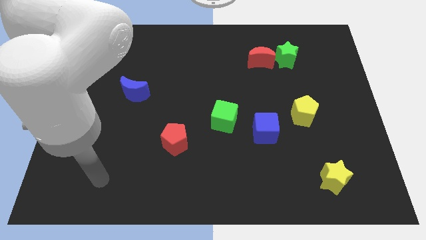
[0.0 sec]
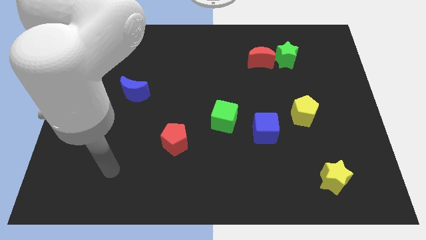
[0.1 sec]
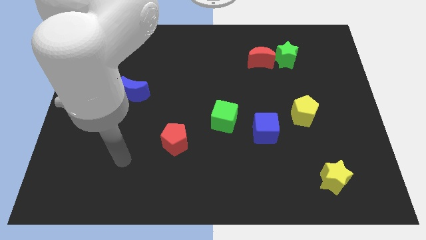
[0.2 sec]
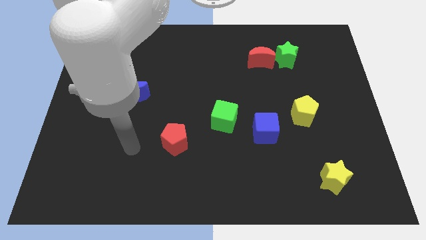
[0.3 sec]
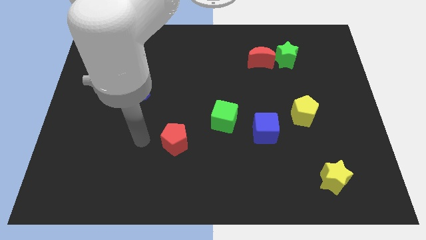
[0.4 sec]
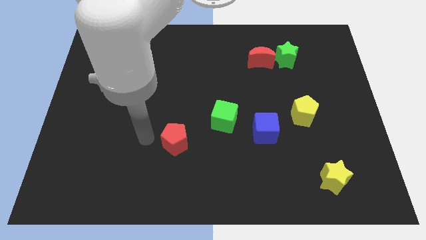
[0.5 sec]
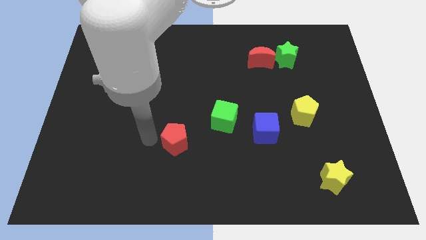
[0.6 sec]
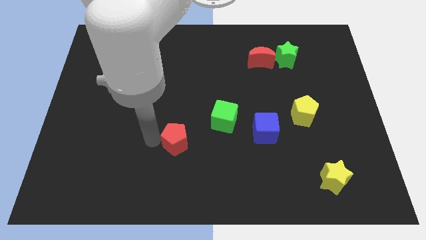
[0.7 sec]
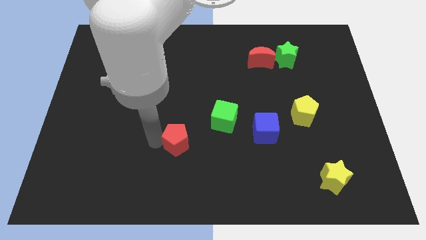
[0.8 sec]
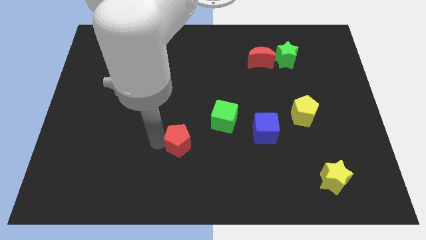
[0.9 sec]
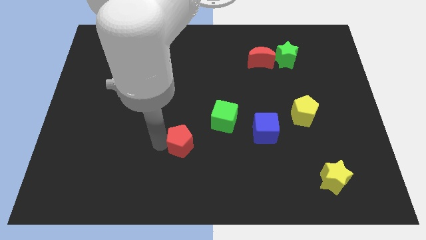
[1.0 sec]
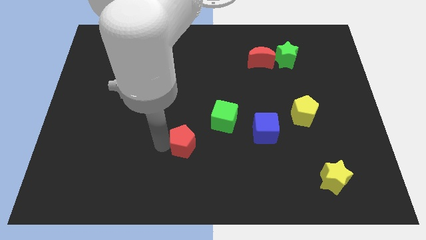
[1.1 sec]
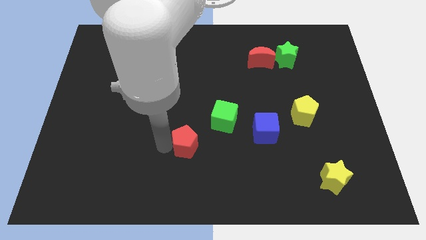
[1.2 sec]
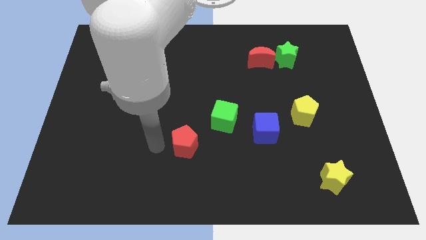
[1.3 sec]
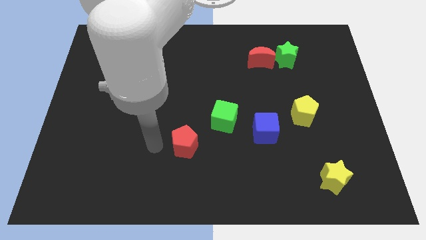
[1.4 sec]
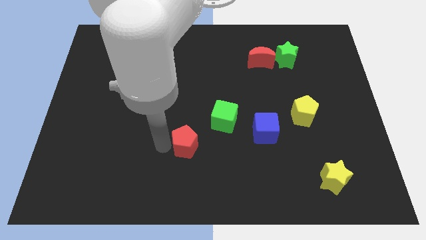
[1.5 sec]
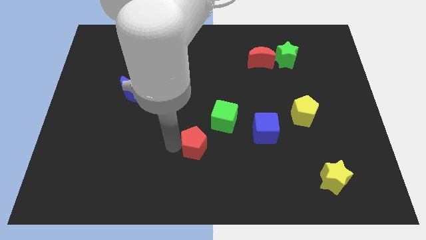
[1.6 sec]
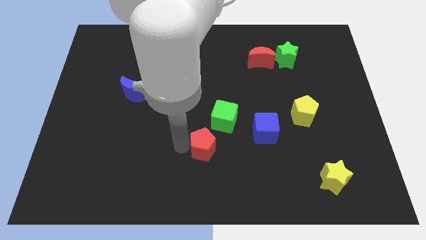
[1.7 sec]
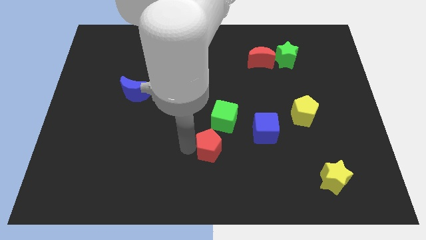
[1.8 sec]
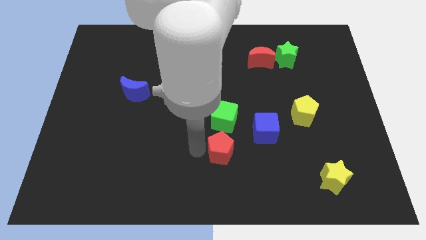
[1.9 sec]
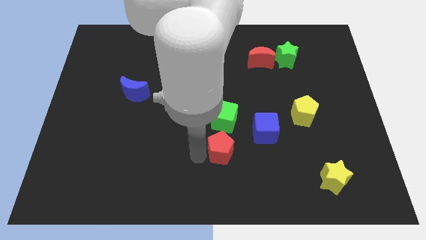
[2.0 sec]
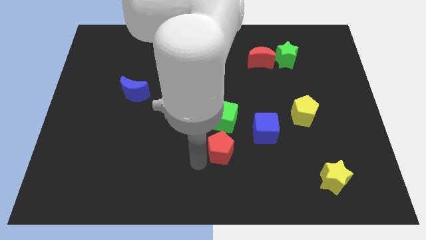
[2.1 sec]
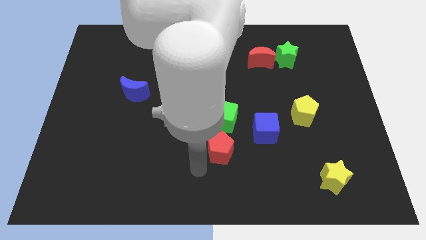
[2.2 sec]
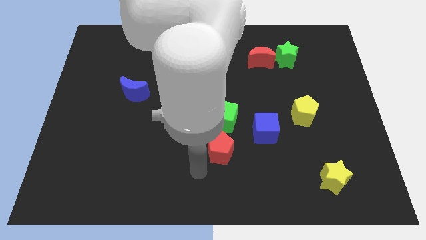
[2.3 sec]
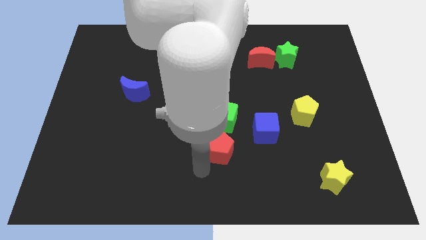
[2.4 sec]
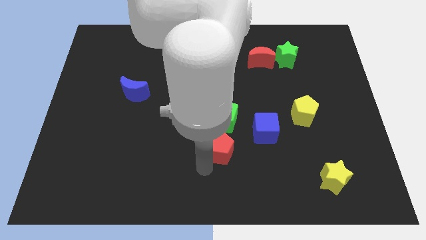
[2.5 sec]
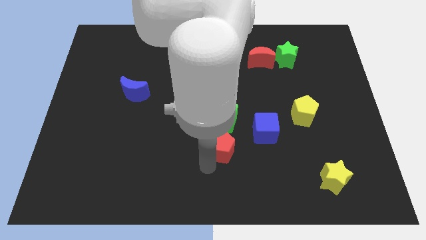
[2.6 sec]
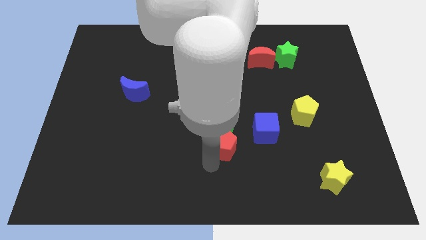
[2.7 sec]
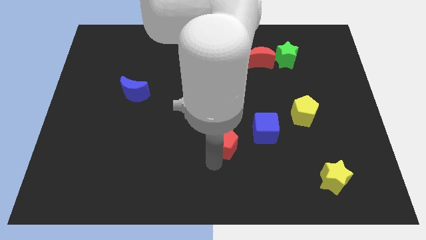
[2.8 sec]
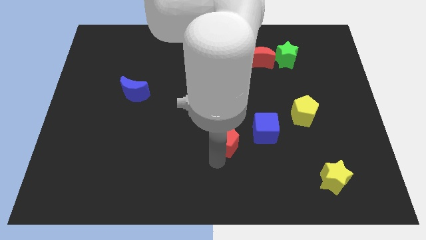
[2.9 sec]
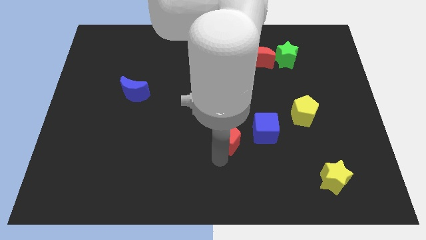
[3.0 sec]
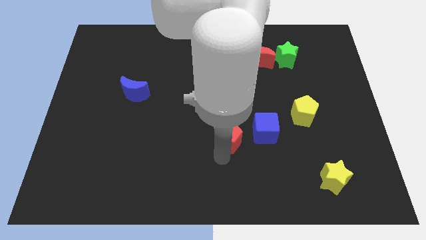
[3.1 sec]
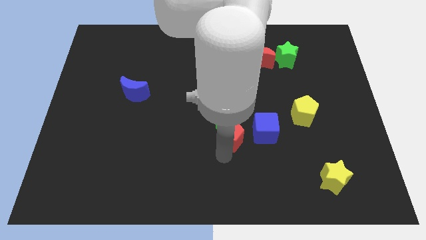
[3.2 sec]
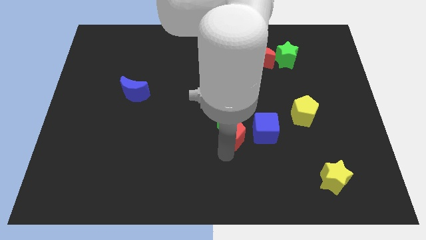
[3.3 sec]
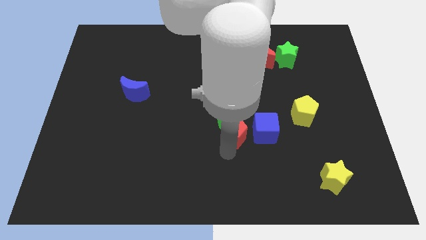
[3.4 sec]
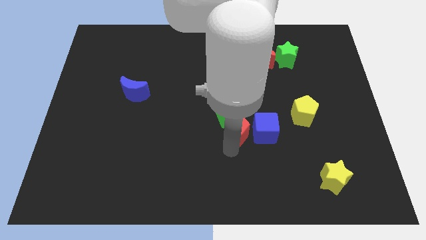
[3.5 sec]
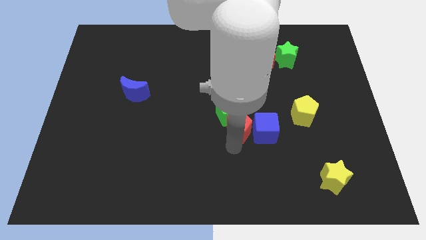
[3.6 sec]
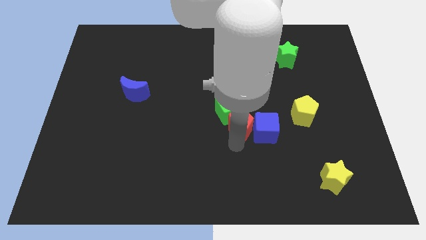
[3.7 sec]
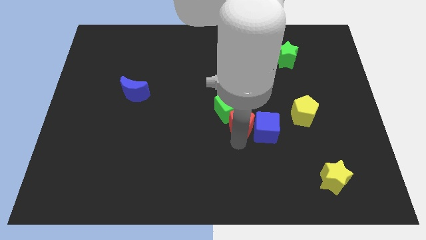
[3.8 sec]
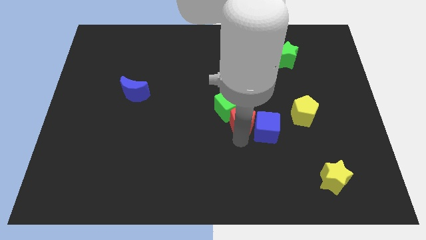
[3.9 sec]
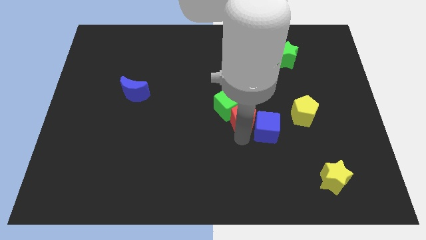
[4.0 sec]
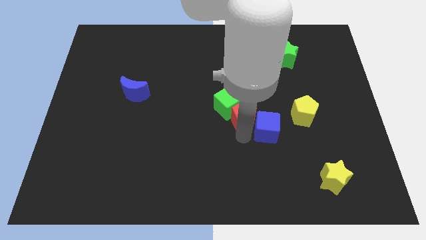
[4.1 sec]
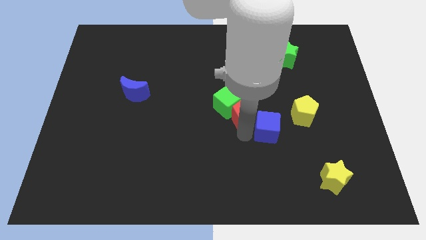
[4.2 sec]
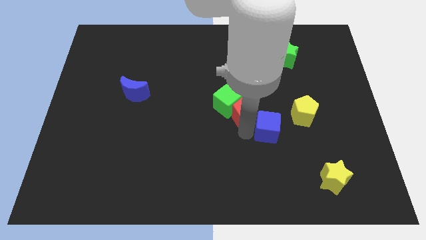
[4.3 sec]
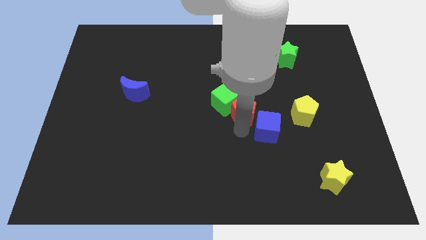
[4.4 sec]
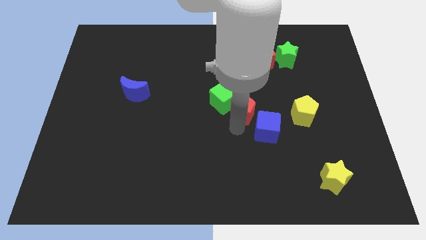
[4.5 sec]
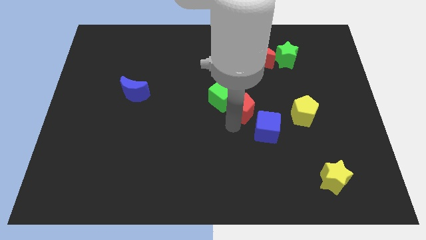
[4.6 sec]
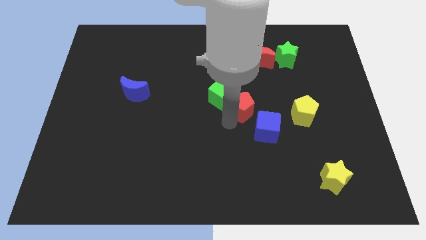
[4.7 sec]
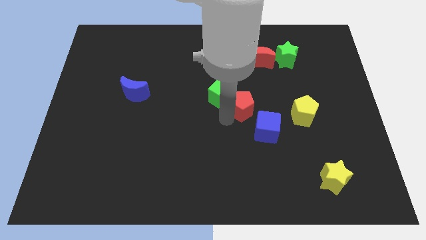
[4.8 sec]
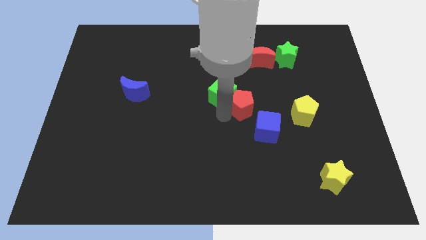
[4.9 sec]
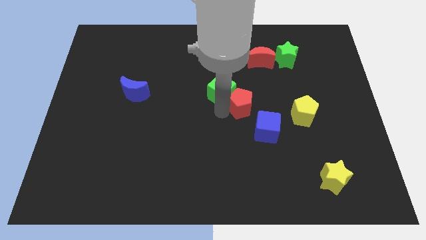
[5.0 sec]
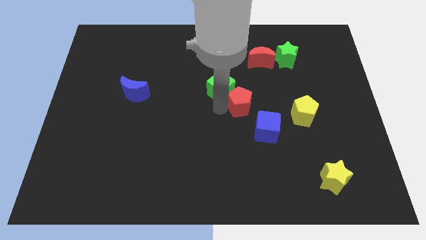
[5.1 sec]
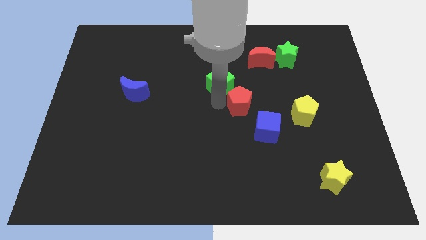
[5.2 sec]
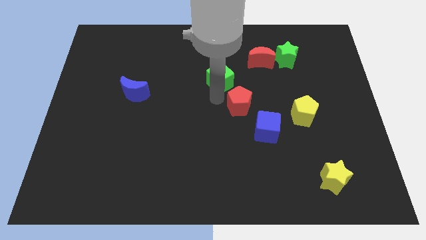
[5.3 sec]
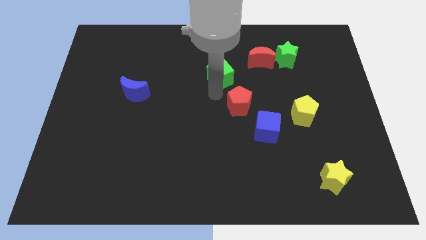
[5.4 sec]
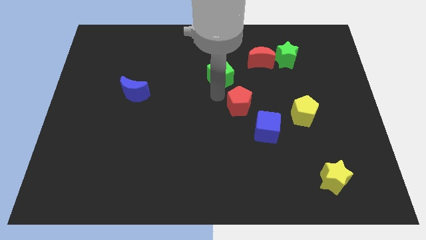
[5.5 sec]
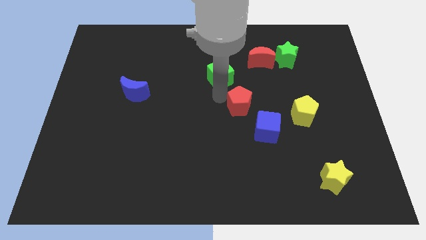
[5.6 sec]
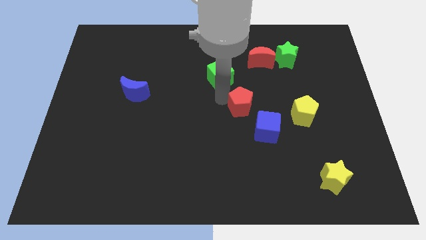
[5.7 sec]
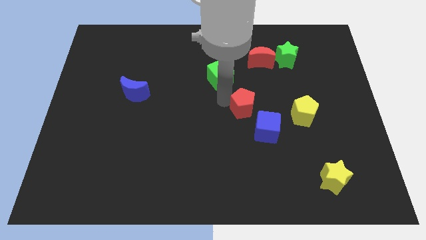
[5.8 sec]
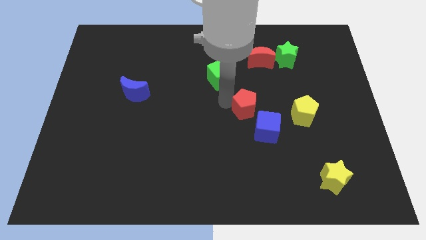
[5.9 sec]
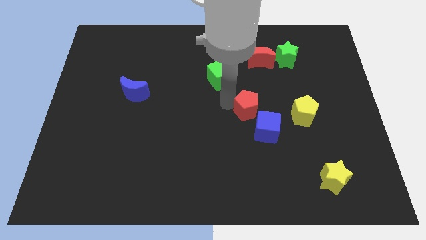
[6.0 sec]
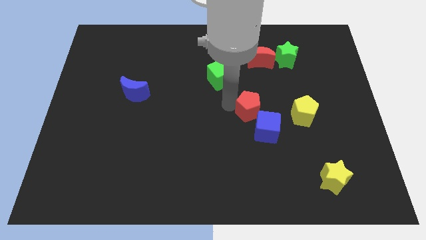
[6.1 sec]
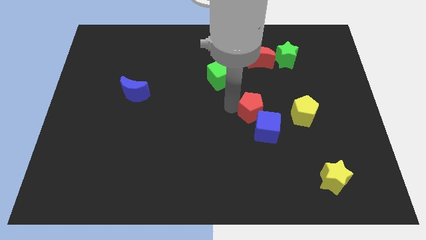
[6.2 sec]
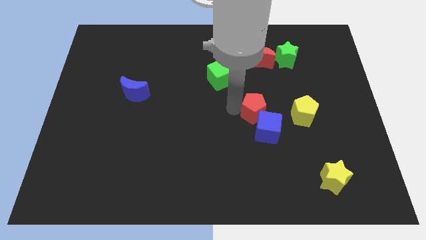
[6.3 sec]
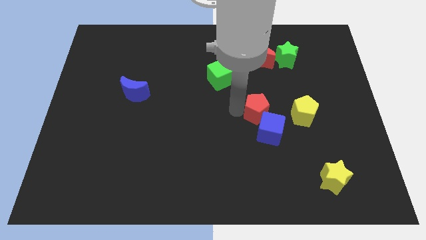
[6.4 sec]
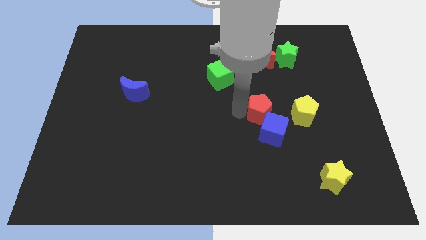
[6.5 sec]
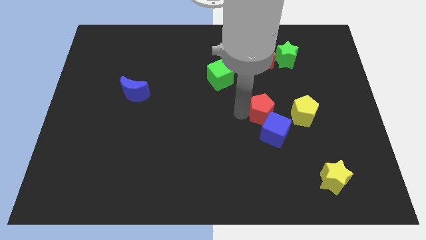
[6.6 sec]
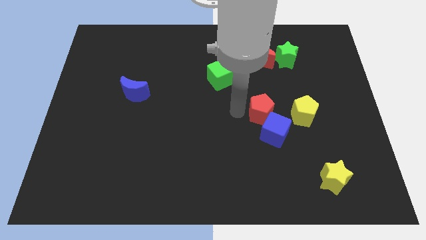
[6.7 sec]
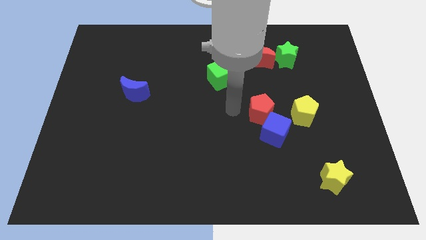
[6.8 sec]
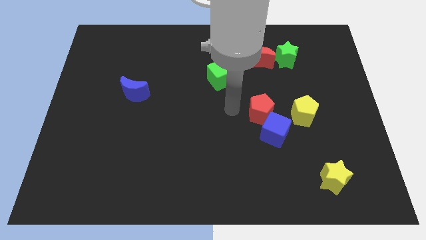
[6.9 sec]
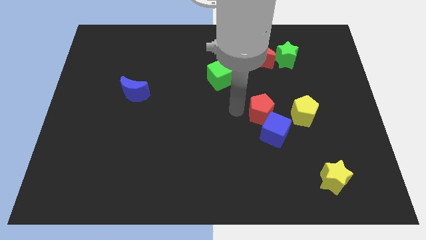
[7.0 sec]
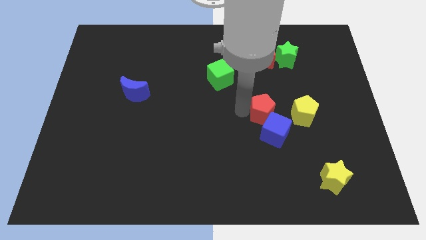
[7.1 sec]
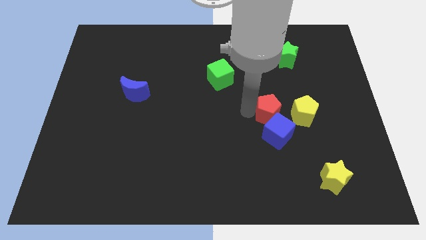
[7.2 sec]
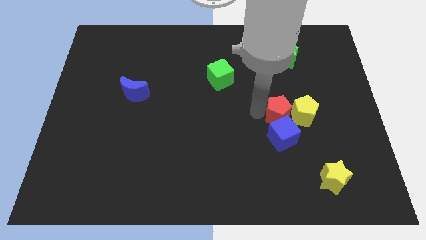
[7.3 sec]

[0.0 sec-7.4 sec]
put the red pentagon towards the yellow pentagon
